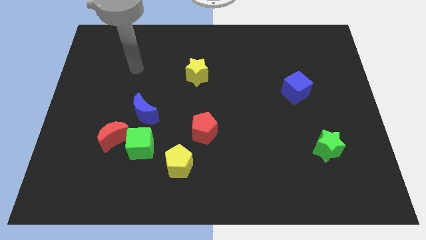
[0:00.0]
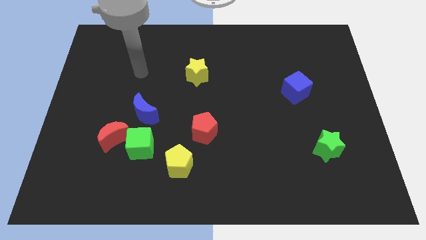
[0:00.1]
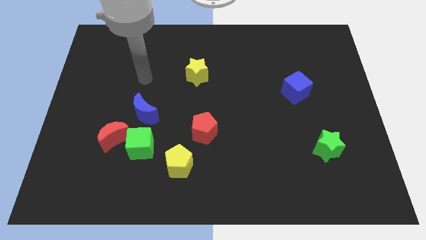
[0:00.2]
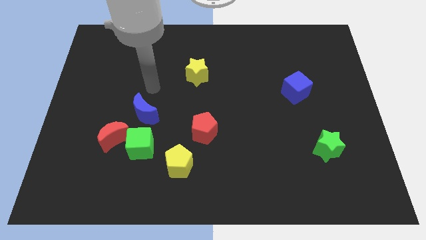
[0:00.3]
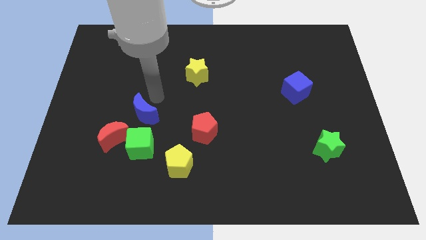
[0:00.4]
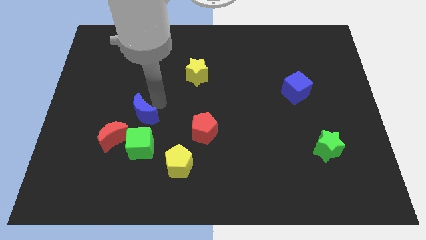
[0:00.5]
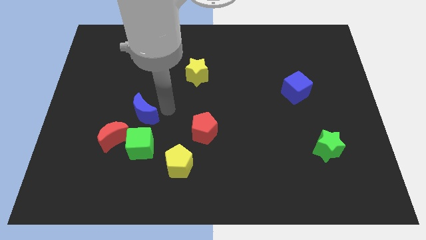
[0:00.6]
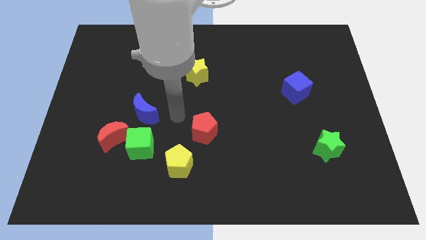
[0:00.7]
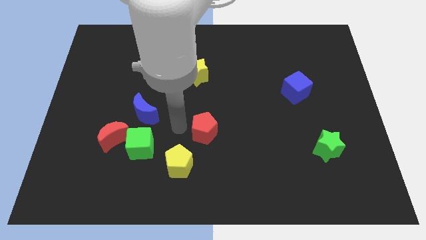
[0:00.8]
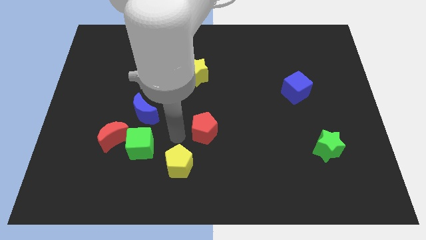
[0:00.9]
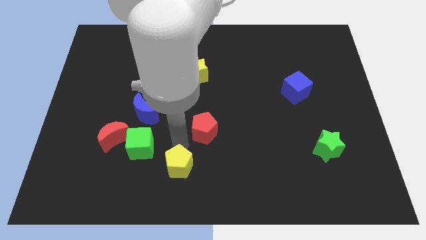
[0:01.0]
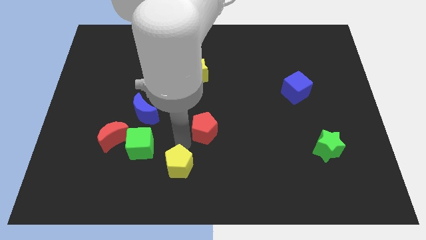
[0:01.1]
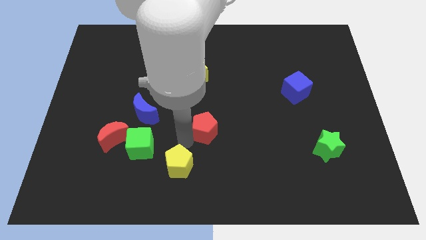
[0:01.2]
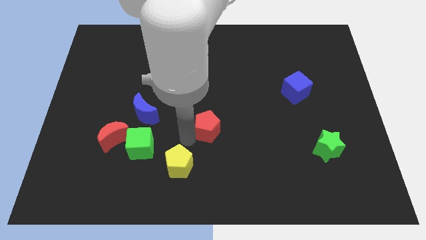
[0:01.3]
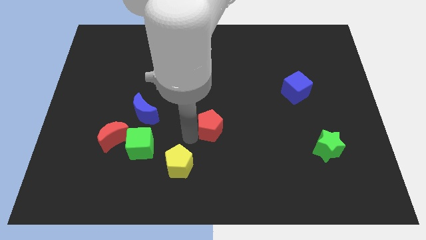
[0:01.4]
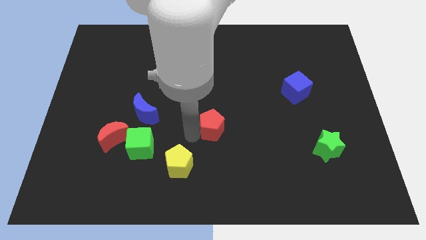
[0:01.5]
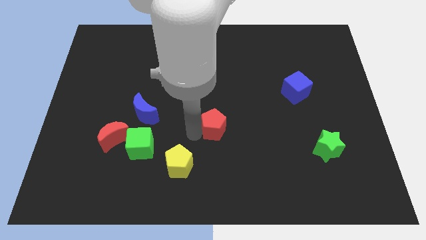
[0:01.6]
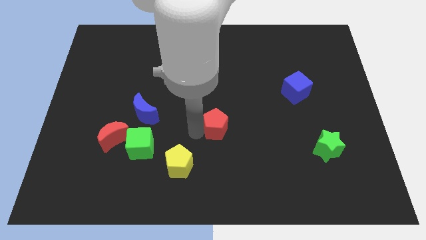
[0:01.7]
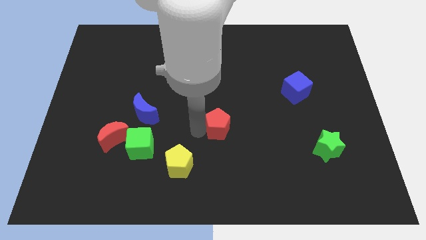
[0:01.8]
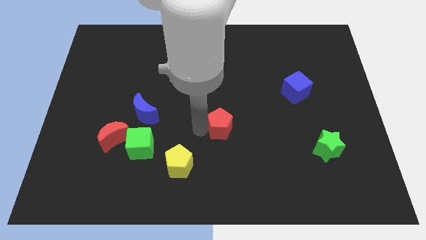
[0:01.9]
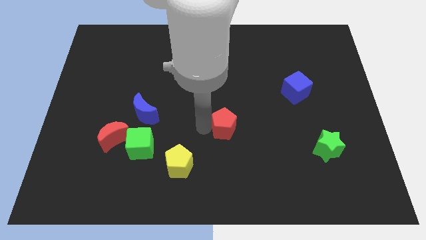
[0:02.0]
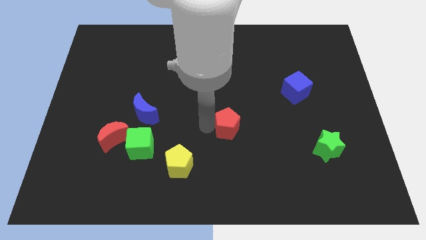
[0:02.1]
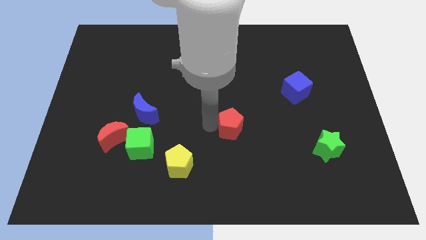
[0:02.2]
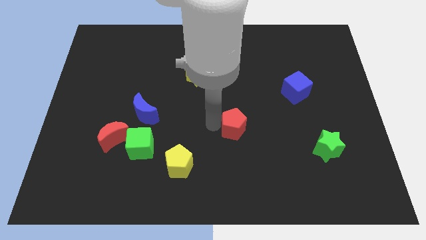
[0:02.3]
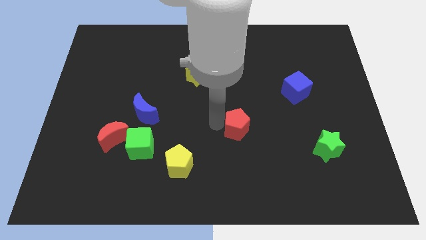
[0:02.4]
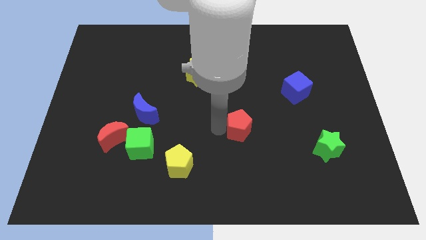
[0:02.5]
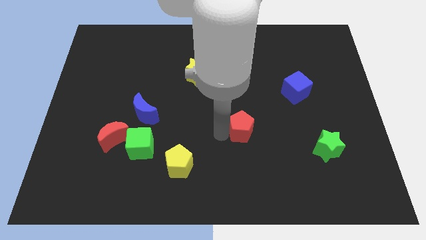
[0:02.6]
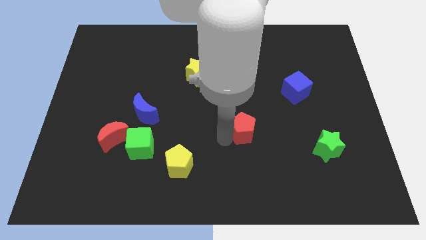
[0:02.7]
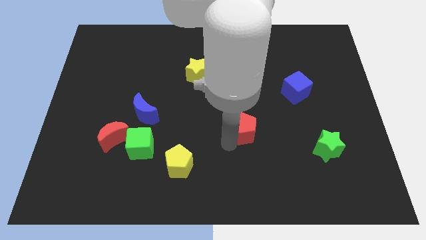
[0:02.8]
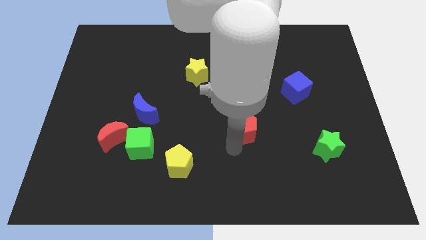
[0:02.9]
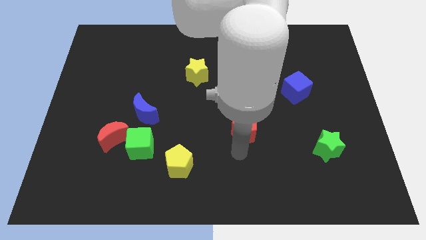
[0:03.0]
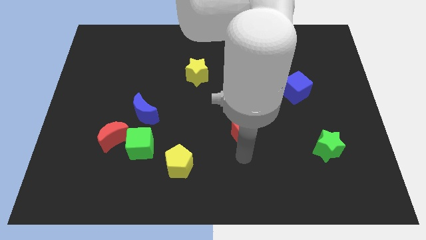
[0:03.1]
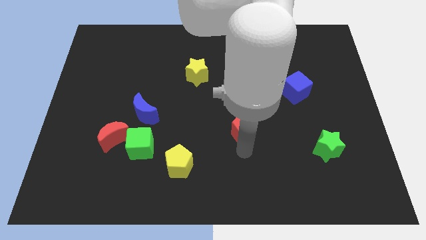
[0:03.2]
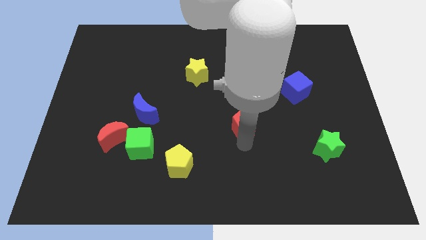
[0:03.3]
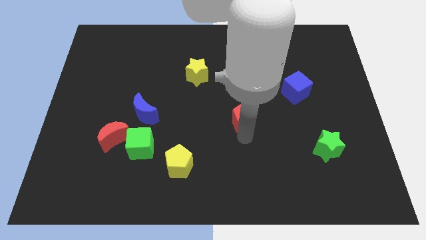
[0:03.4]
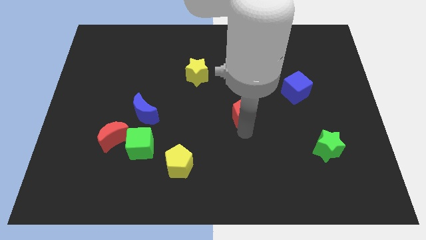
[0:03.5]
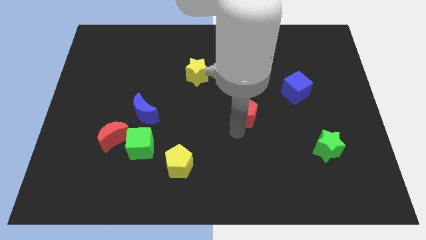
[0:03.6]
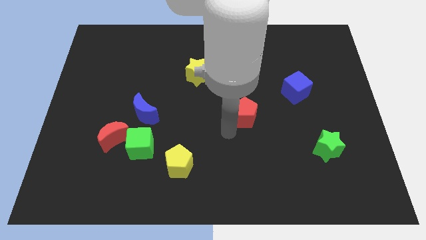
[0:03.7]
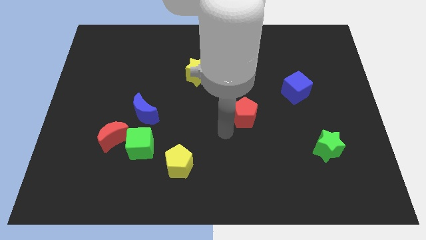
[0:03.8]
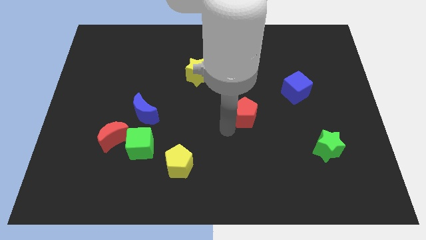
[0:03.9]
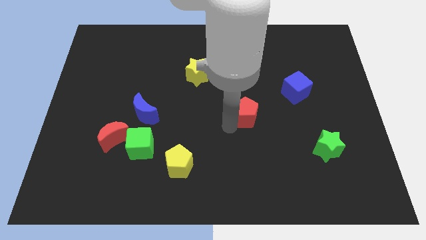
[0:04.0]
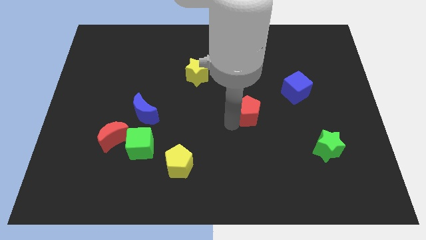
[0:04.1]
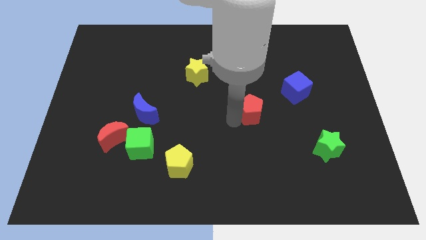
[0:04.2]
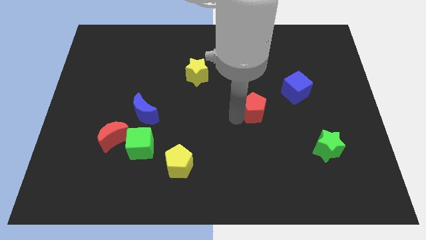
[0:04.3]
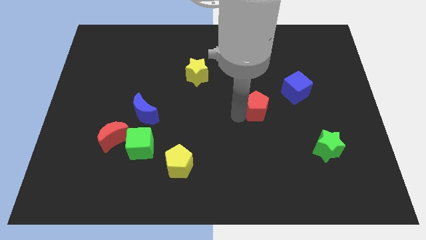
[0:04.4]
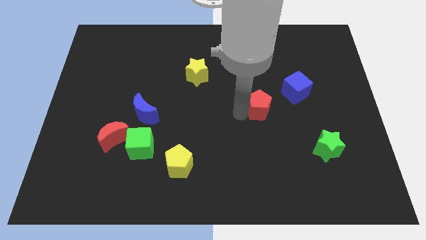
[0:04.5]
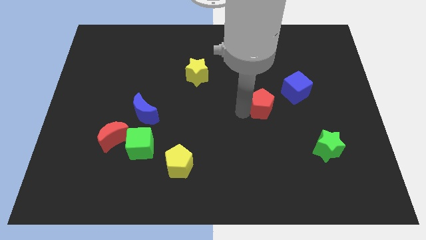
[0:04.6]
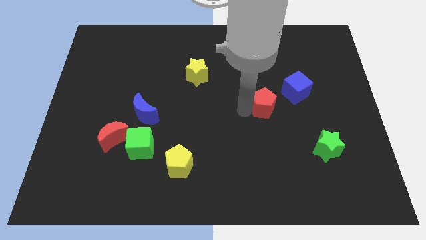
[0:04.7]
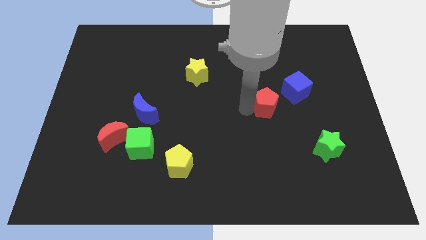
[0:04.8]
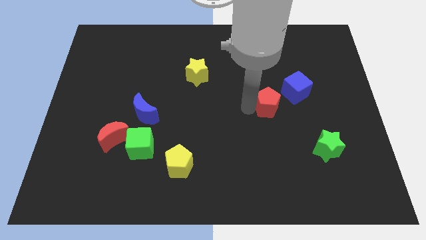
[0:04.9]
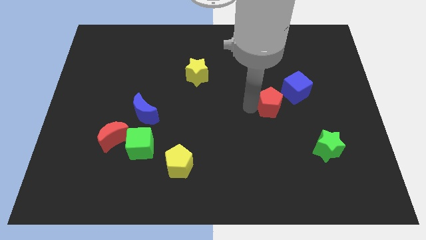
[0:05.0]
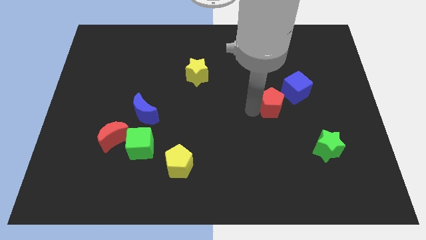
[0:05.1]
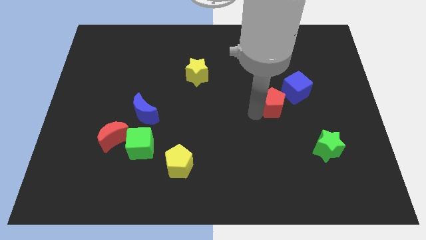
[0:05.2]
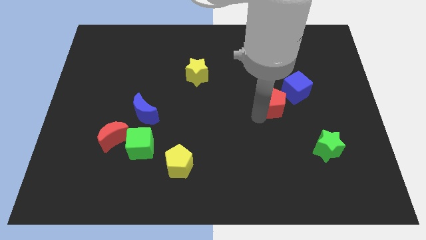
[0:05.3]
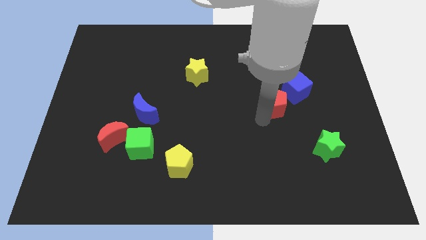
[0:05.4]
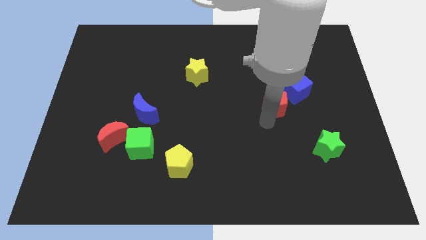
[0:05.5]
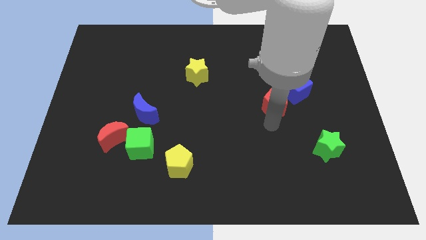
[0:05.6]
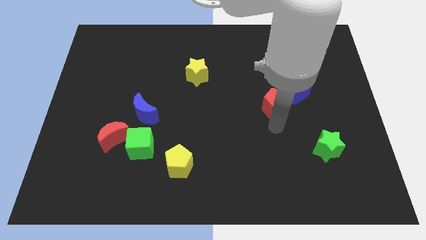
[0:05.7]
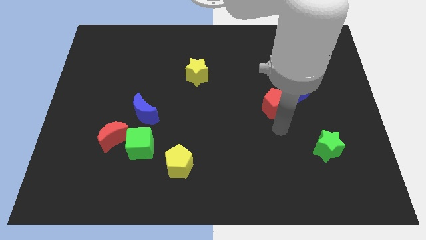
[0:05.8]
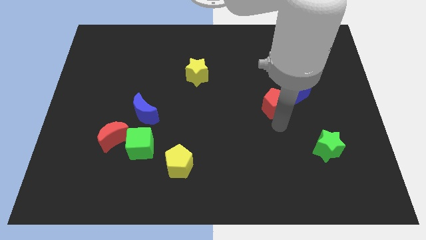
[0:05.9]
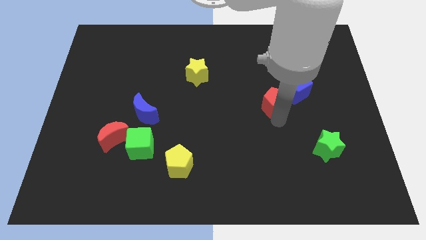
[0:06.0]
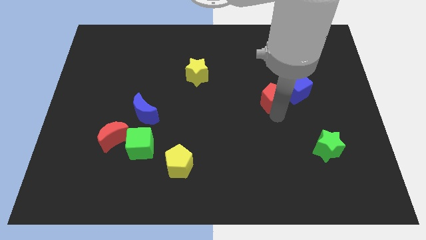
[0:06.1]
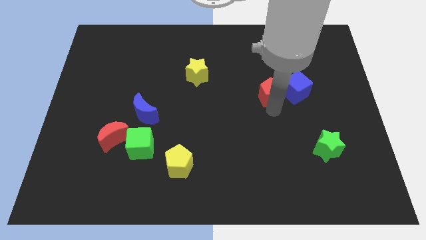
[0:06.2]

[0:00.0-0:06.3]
move the red pentagon close to the blue cube

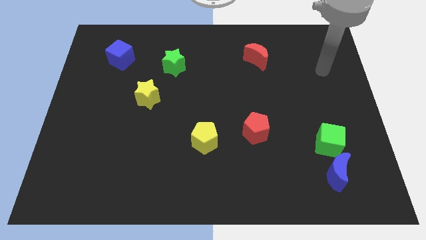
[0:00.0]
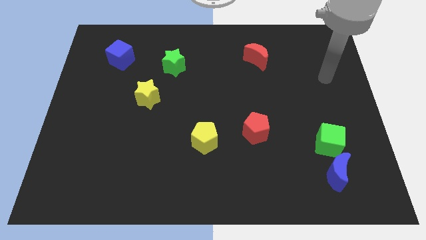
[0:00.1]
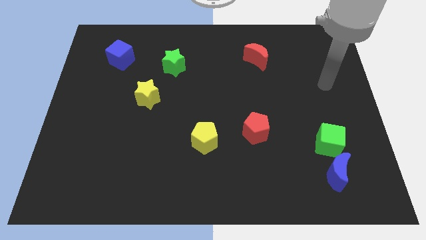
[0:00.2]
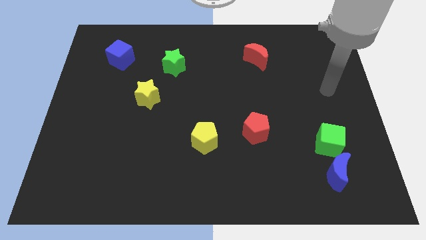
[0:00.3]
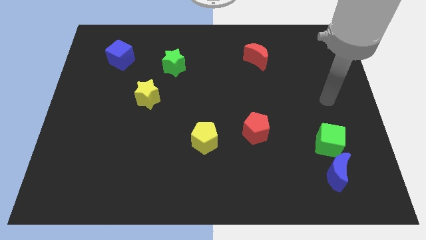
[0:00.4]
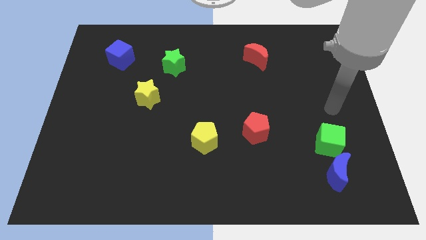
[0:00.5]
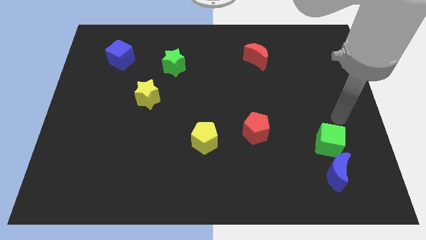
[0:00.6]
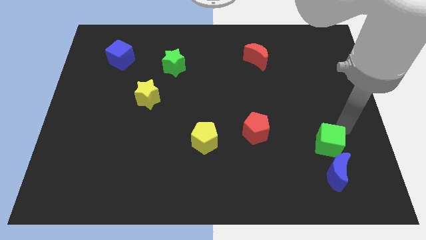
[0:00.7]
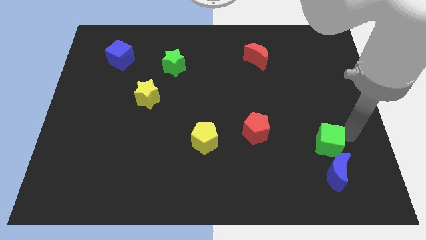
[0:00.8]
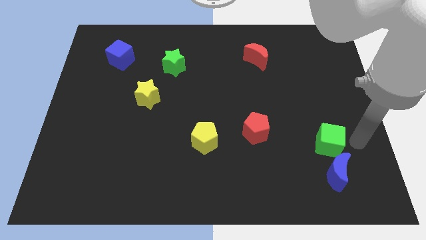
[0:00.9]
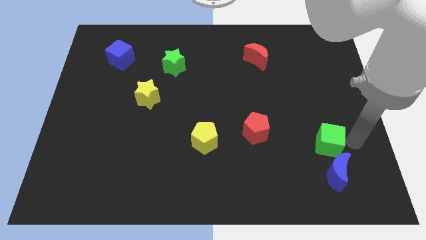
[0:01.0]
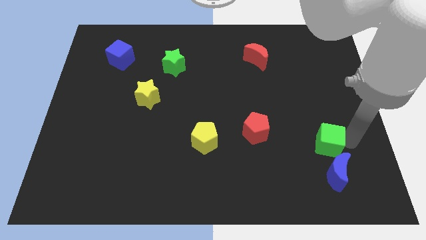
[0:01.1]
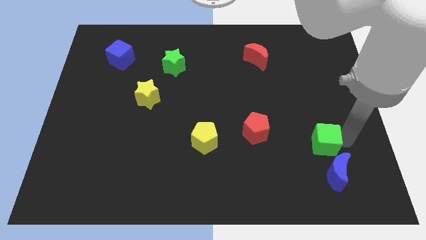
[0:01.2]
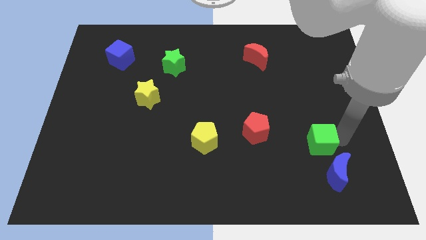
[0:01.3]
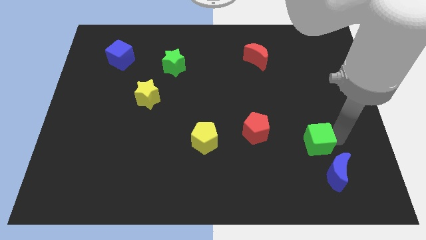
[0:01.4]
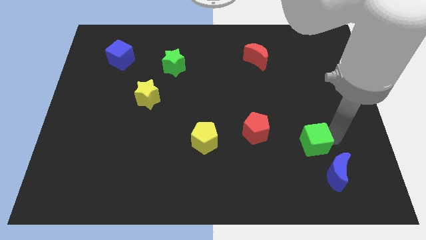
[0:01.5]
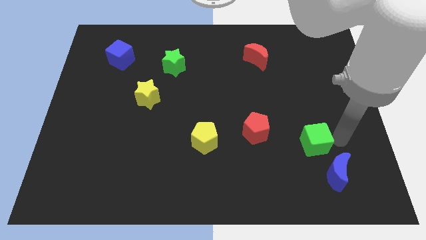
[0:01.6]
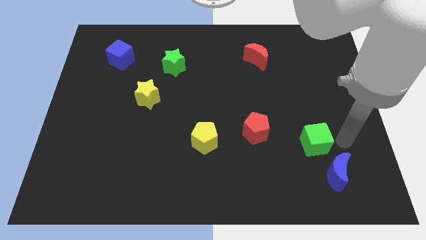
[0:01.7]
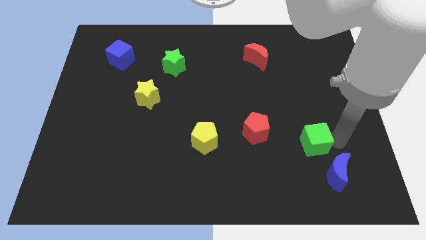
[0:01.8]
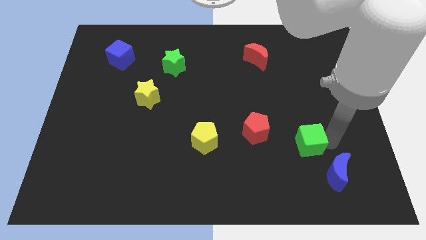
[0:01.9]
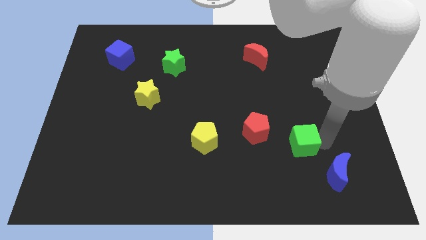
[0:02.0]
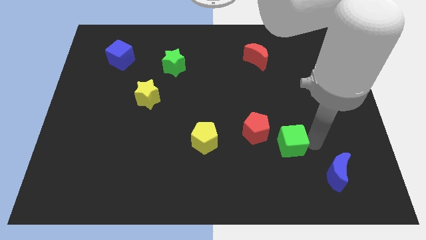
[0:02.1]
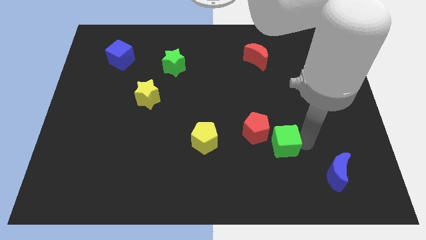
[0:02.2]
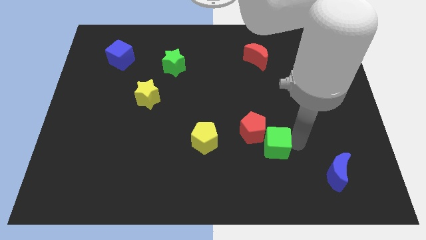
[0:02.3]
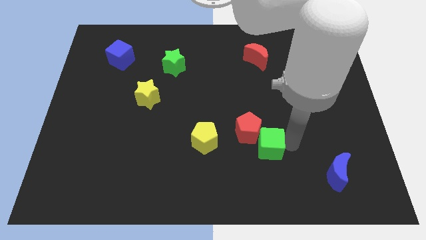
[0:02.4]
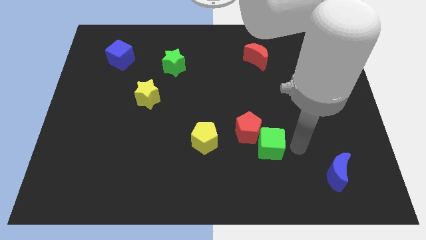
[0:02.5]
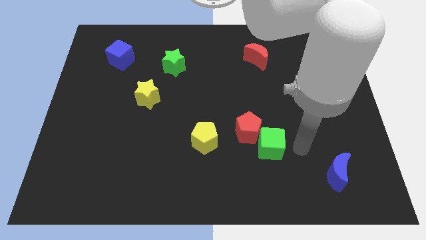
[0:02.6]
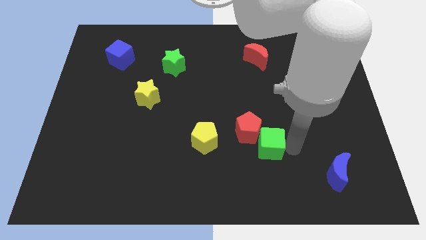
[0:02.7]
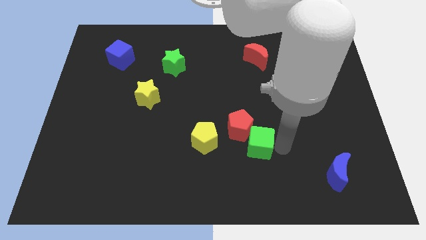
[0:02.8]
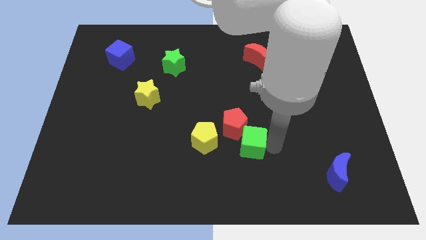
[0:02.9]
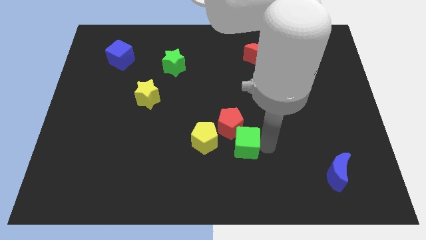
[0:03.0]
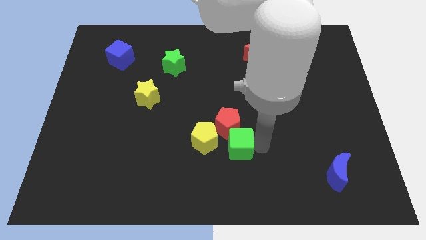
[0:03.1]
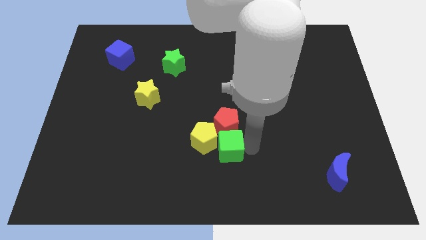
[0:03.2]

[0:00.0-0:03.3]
push the green cube close to the yellow pentagon
